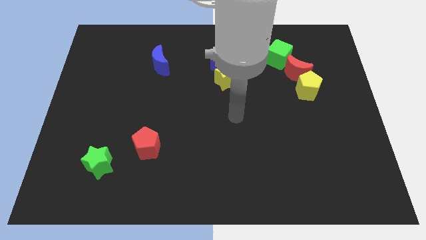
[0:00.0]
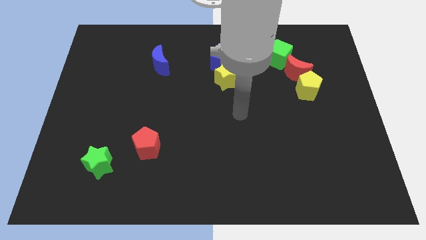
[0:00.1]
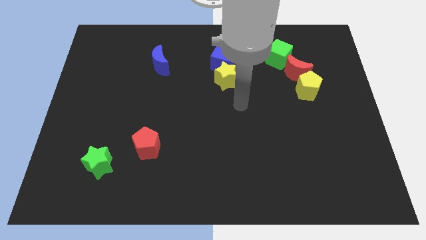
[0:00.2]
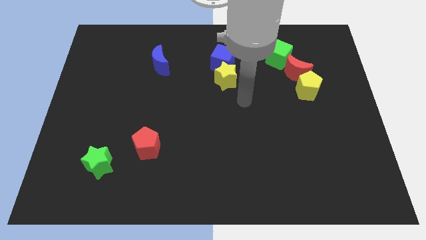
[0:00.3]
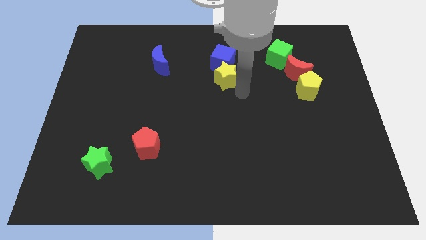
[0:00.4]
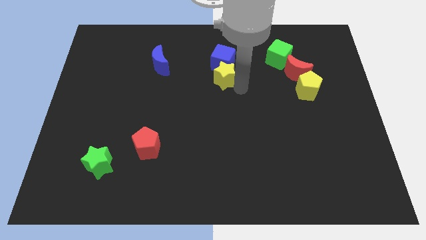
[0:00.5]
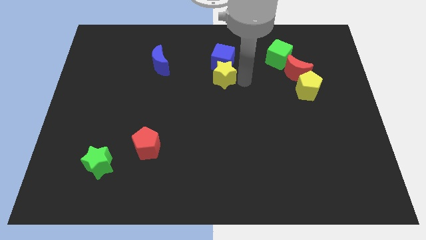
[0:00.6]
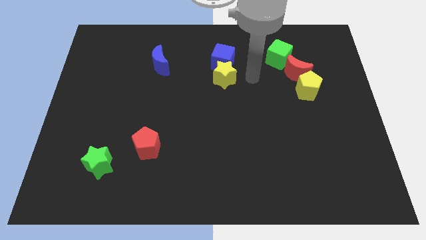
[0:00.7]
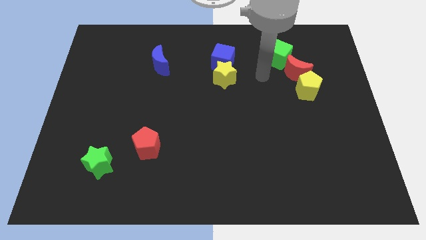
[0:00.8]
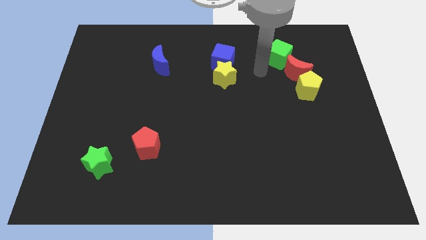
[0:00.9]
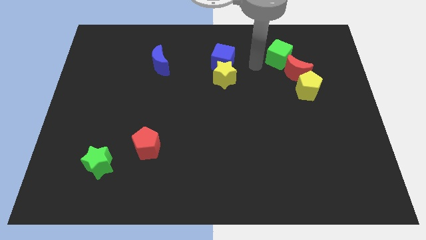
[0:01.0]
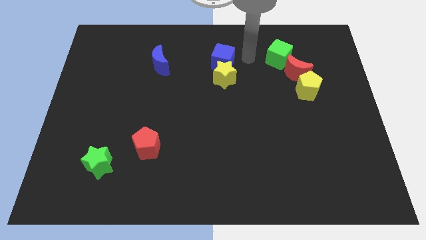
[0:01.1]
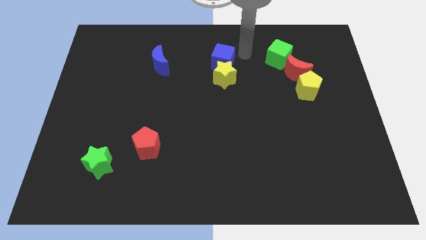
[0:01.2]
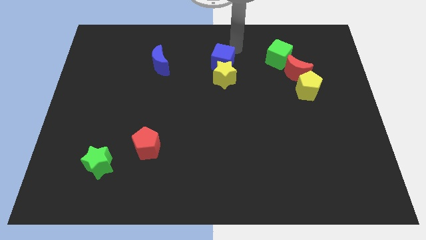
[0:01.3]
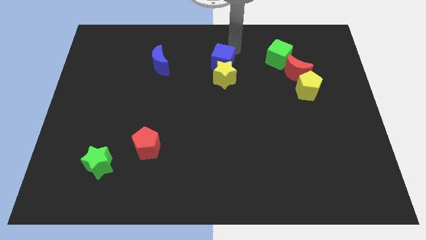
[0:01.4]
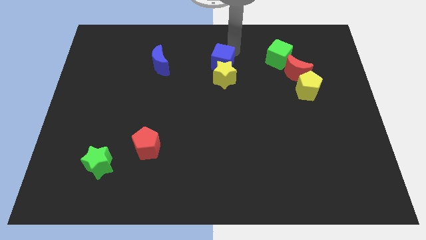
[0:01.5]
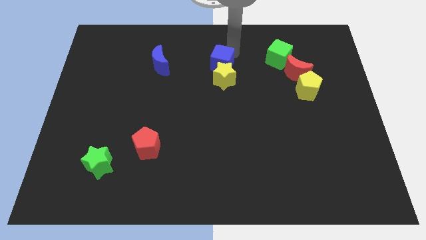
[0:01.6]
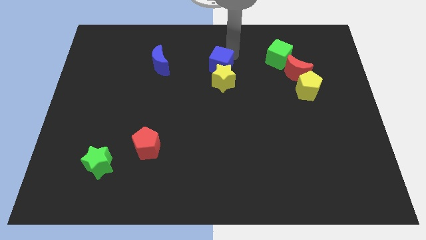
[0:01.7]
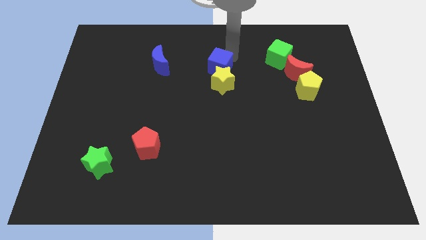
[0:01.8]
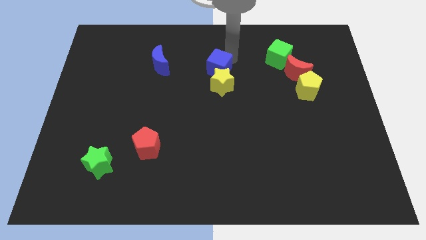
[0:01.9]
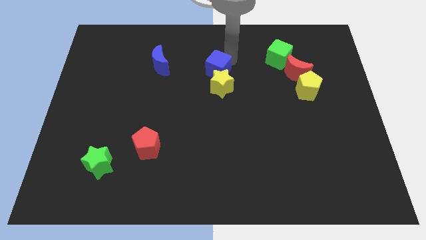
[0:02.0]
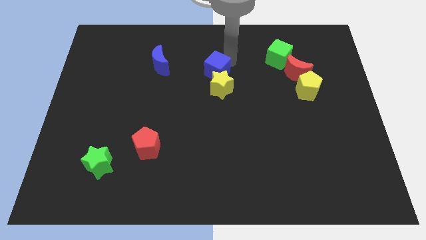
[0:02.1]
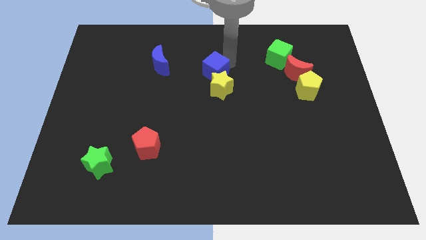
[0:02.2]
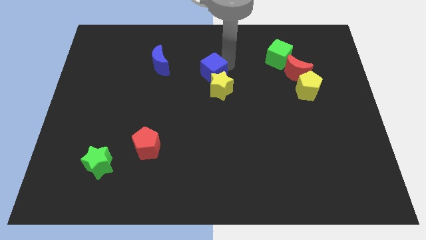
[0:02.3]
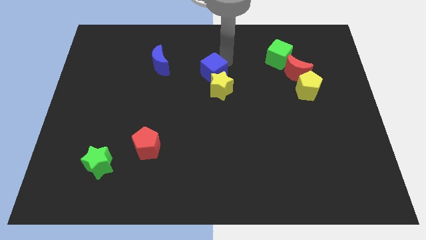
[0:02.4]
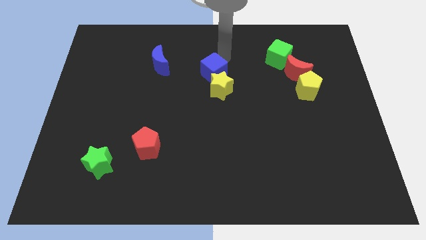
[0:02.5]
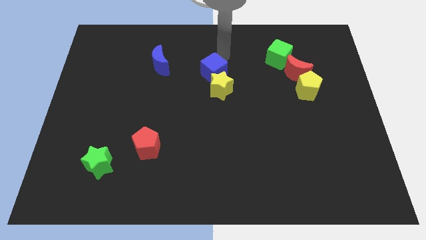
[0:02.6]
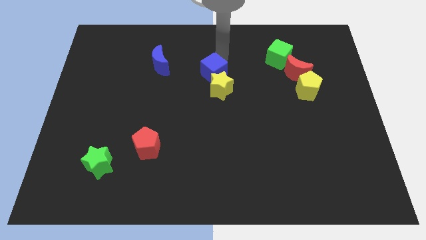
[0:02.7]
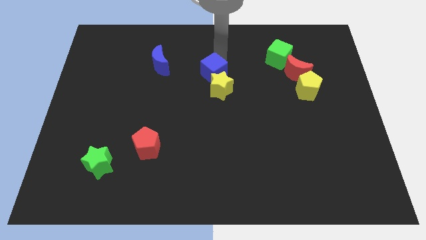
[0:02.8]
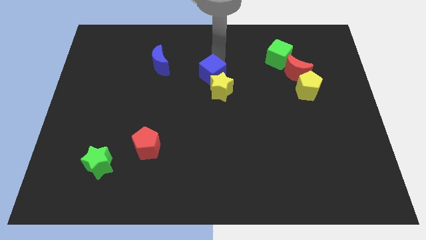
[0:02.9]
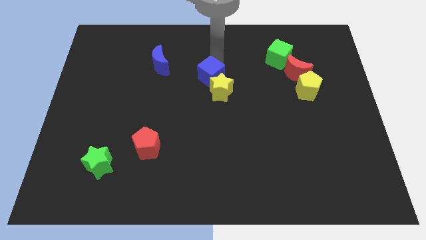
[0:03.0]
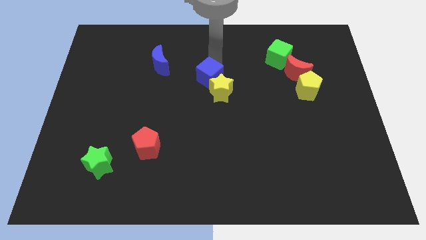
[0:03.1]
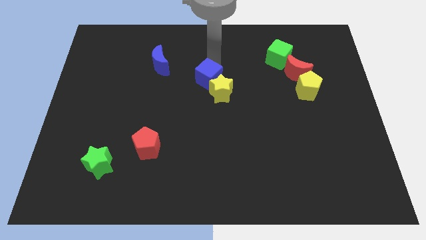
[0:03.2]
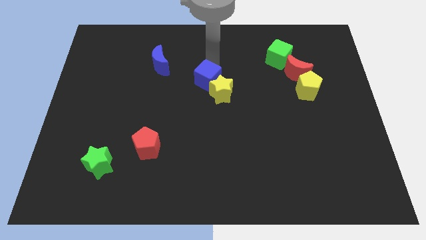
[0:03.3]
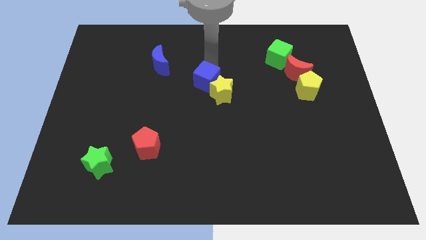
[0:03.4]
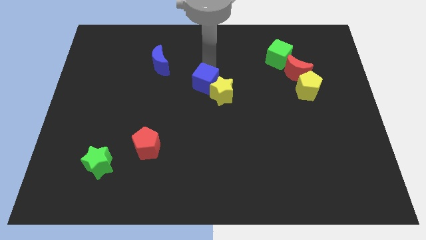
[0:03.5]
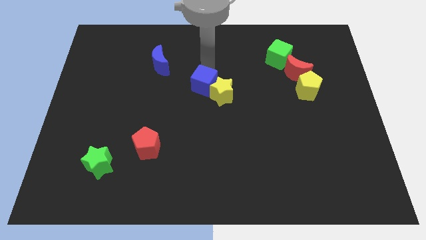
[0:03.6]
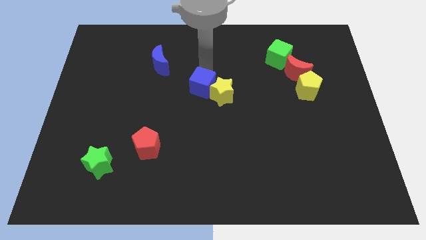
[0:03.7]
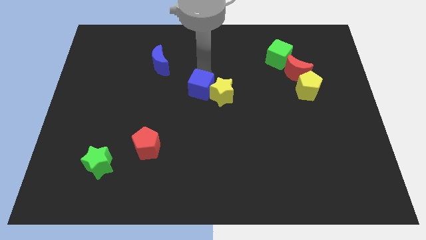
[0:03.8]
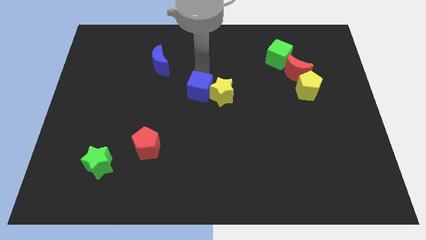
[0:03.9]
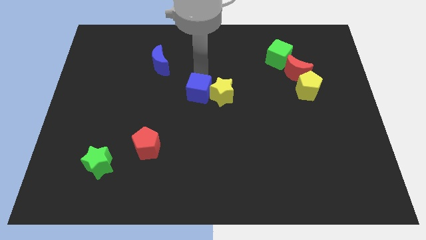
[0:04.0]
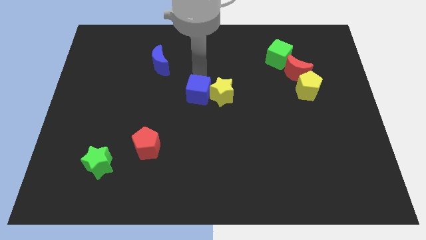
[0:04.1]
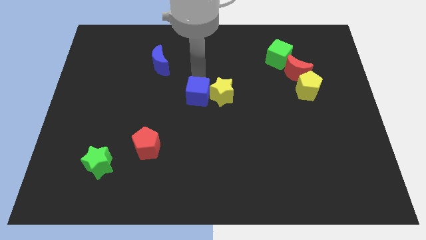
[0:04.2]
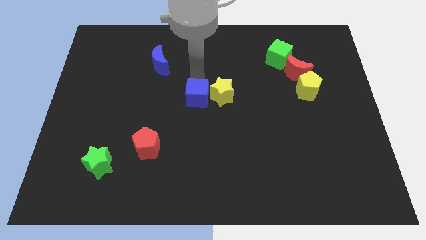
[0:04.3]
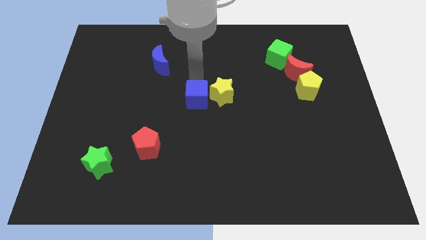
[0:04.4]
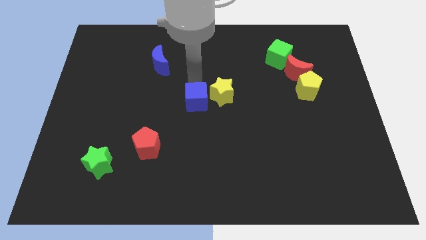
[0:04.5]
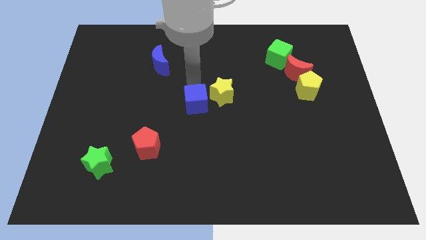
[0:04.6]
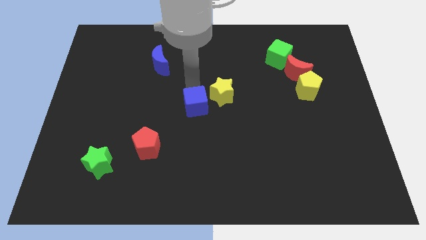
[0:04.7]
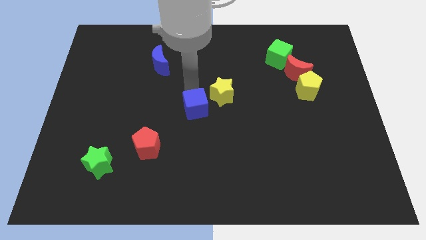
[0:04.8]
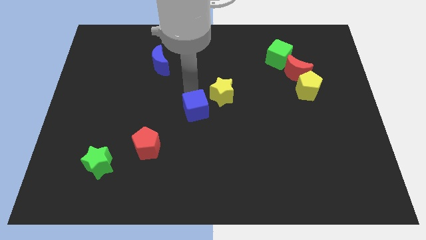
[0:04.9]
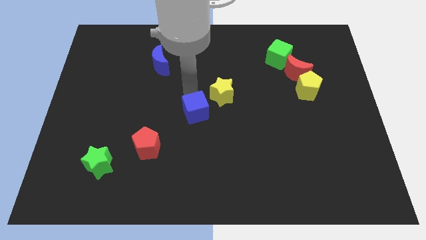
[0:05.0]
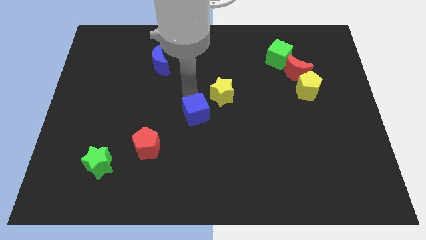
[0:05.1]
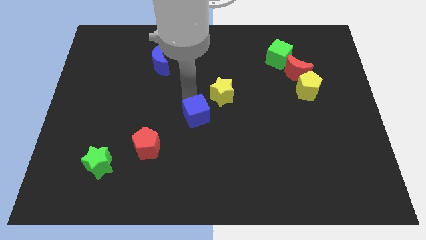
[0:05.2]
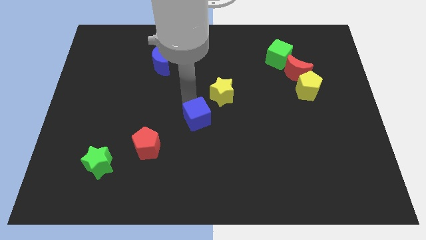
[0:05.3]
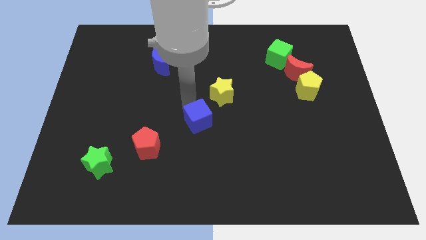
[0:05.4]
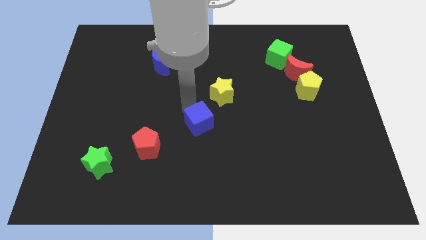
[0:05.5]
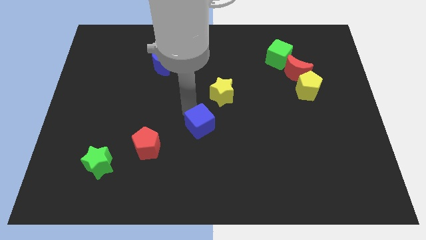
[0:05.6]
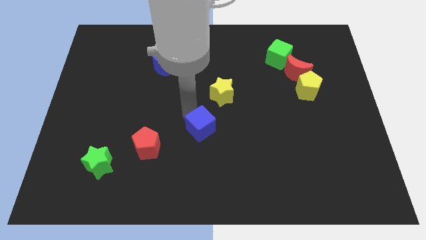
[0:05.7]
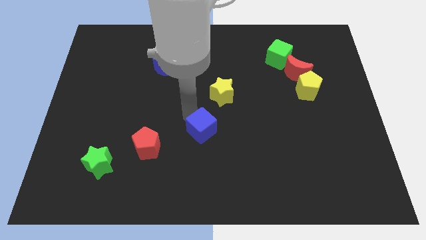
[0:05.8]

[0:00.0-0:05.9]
slide the blue cube down

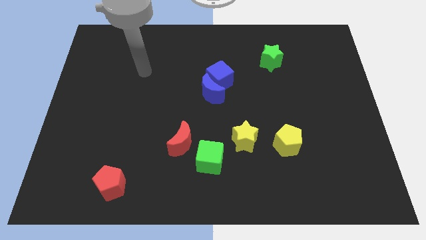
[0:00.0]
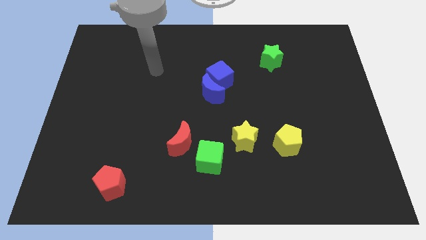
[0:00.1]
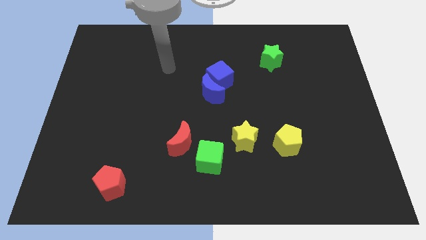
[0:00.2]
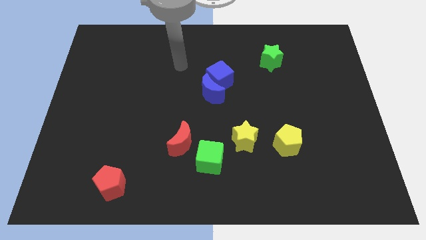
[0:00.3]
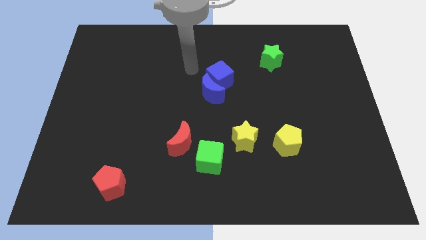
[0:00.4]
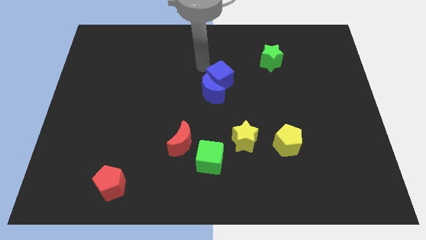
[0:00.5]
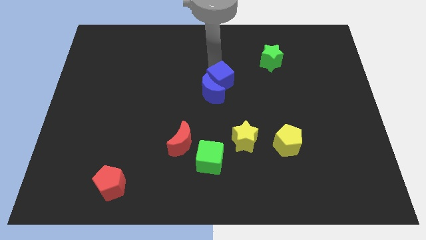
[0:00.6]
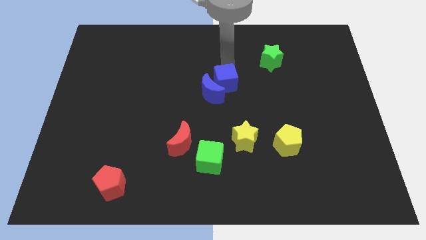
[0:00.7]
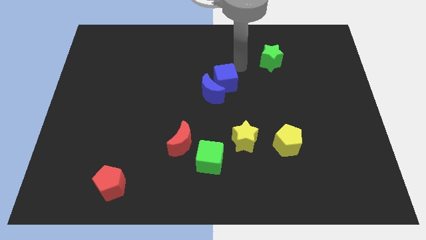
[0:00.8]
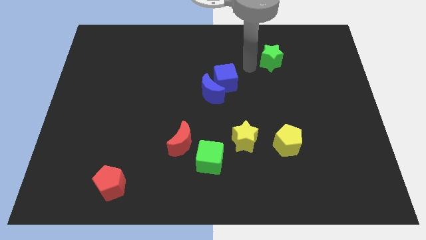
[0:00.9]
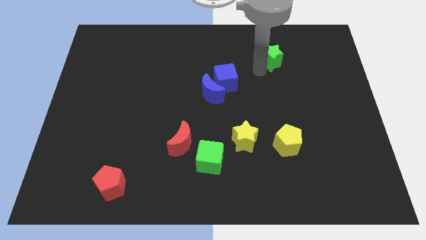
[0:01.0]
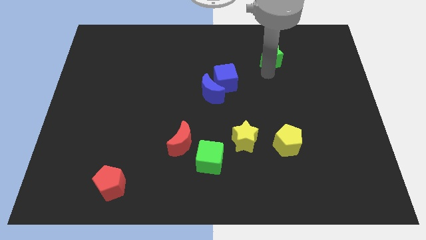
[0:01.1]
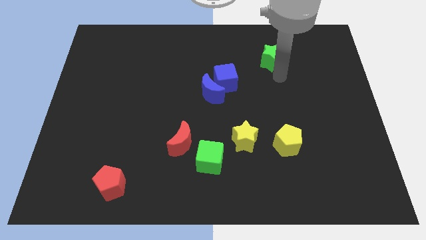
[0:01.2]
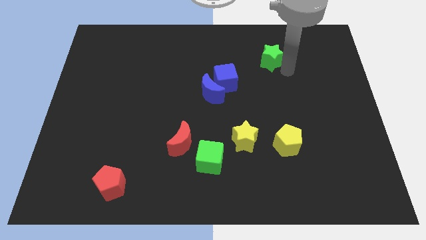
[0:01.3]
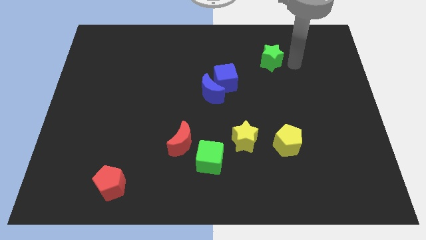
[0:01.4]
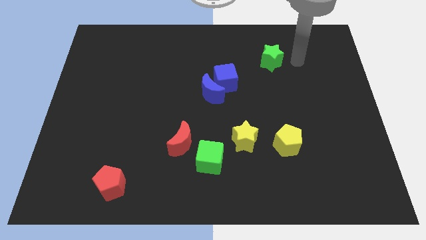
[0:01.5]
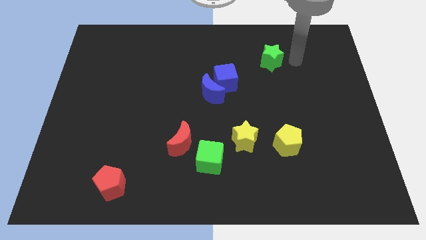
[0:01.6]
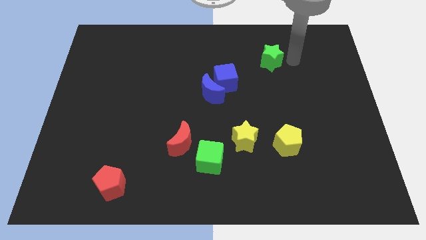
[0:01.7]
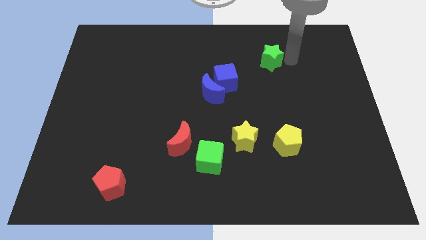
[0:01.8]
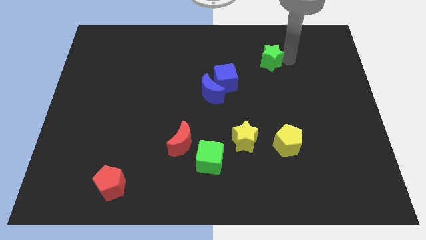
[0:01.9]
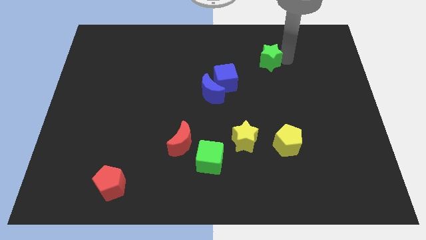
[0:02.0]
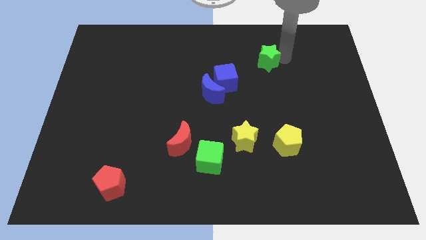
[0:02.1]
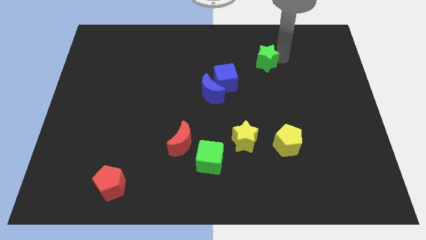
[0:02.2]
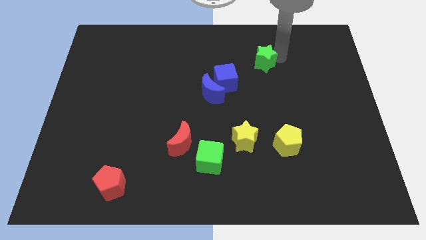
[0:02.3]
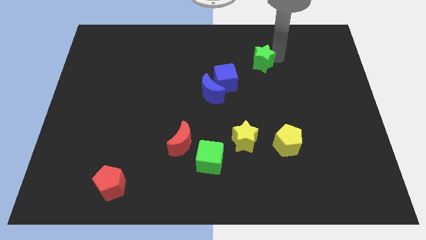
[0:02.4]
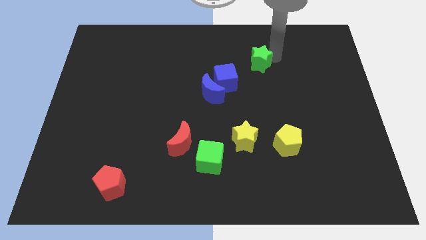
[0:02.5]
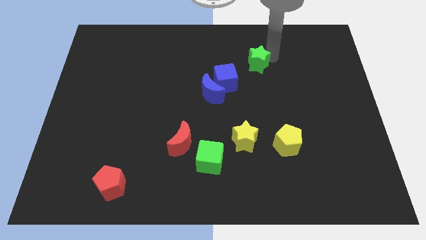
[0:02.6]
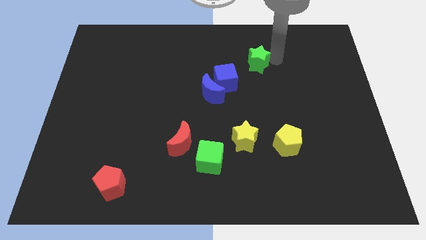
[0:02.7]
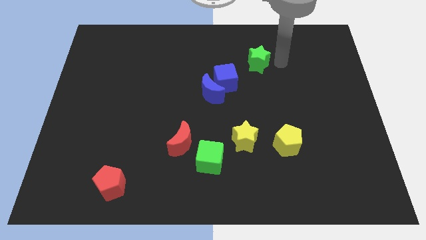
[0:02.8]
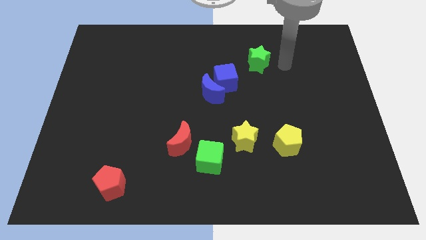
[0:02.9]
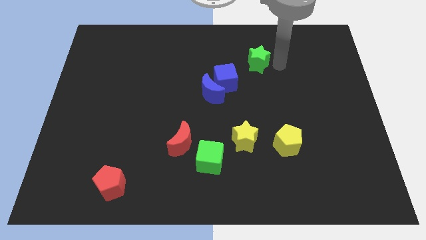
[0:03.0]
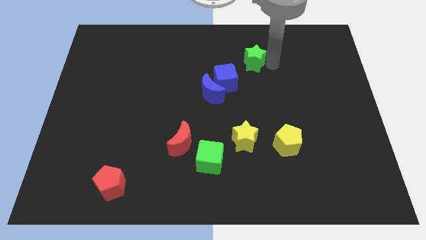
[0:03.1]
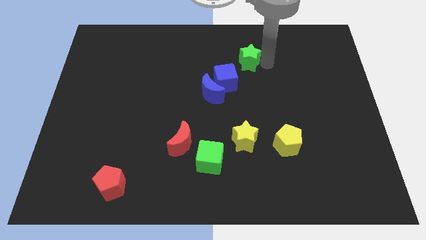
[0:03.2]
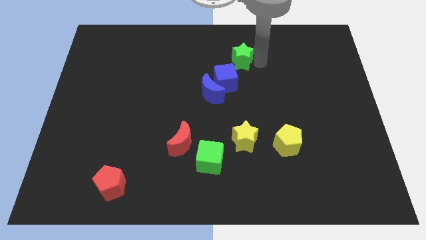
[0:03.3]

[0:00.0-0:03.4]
slightly move the green star to the left
